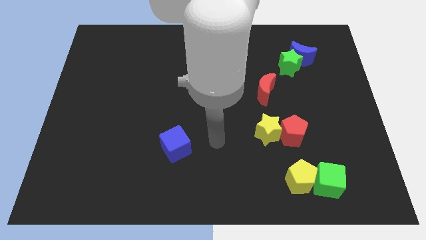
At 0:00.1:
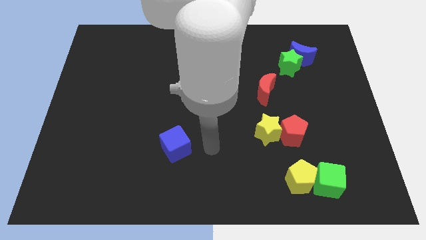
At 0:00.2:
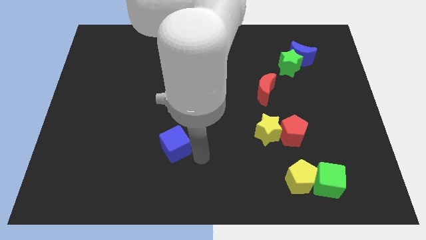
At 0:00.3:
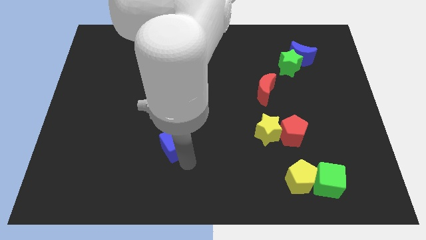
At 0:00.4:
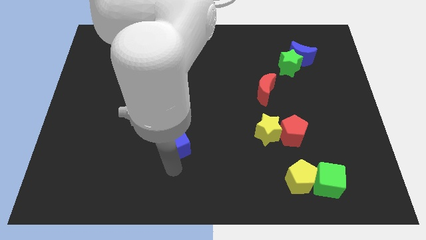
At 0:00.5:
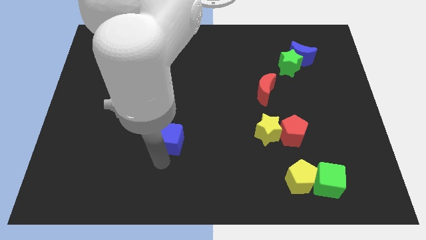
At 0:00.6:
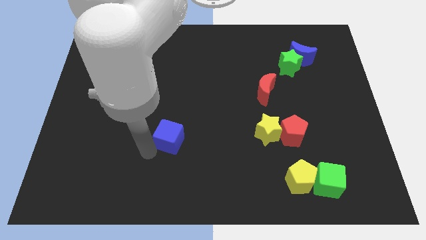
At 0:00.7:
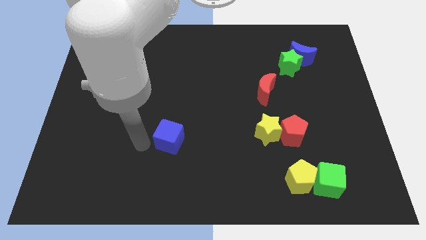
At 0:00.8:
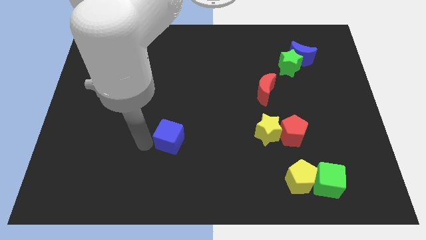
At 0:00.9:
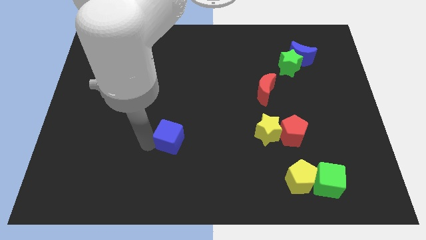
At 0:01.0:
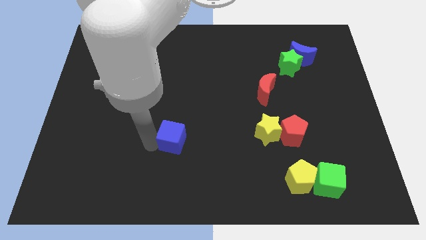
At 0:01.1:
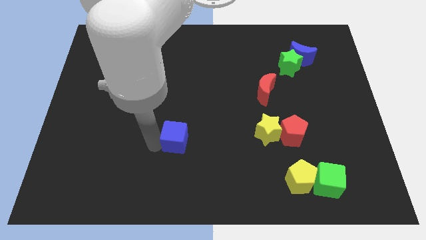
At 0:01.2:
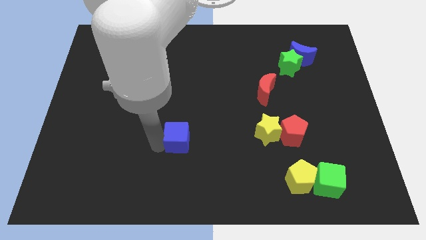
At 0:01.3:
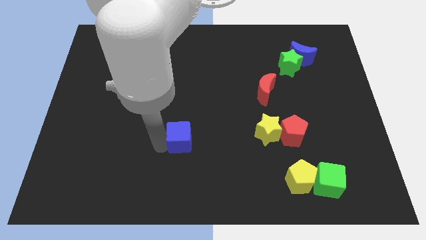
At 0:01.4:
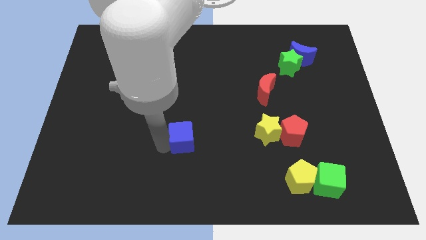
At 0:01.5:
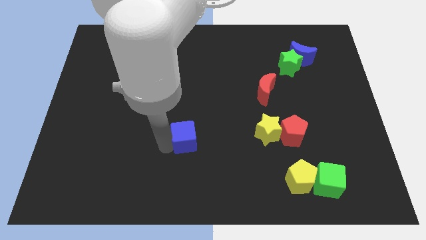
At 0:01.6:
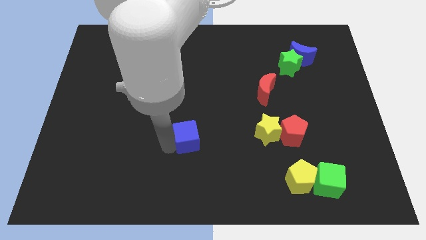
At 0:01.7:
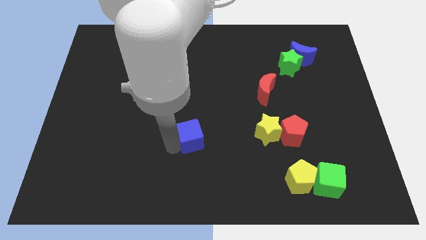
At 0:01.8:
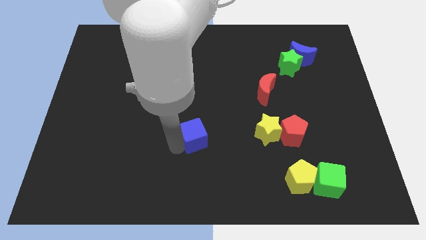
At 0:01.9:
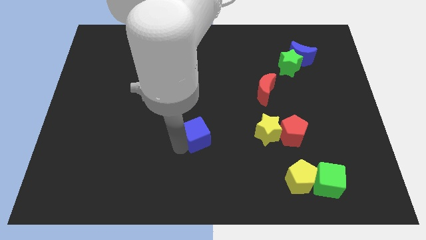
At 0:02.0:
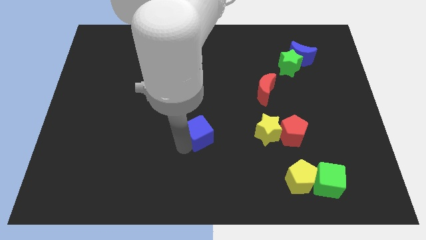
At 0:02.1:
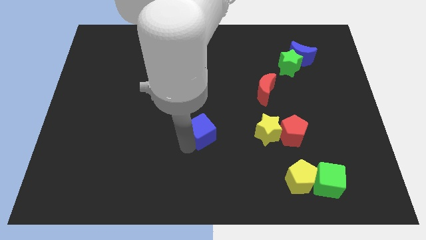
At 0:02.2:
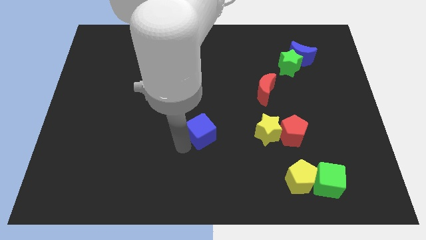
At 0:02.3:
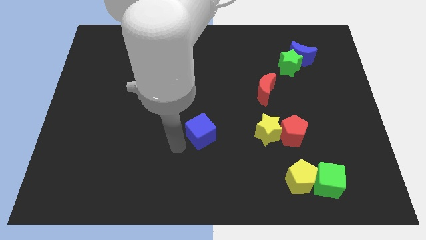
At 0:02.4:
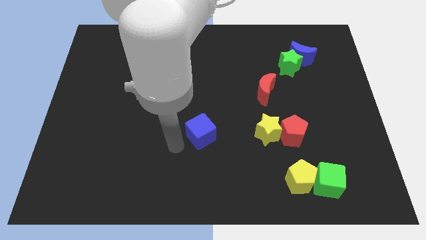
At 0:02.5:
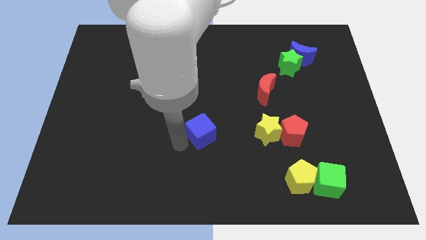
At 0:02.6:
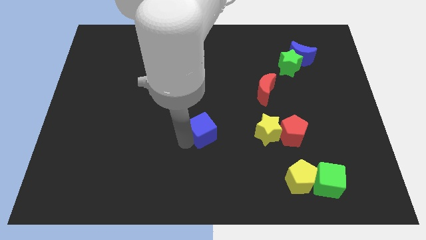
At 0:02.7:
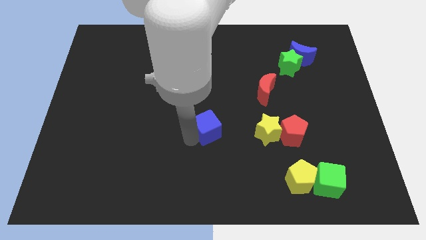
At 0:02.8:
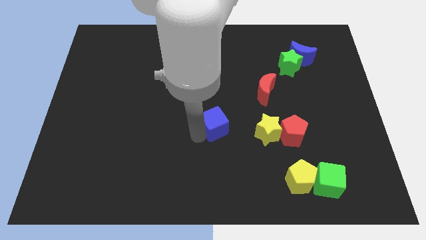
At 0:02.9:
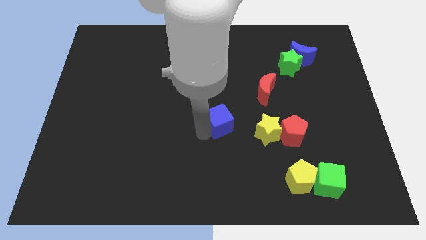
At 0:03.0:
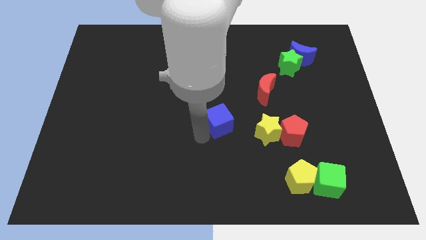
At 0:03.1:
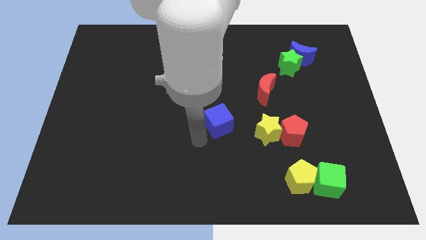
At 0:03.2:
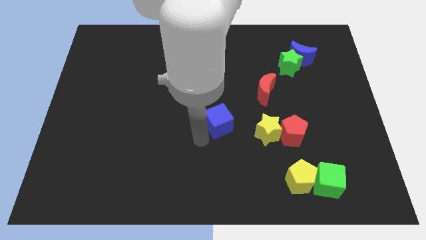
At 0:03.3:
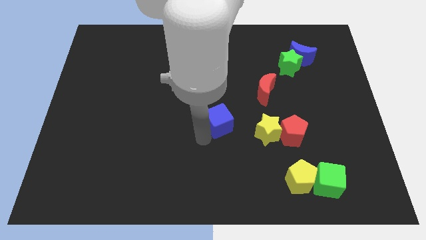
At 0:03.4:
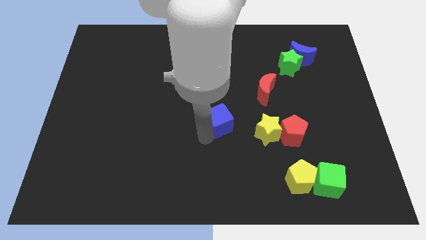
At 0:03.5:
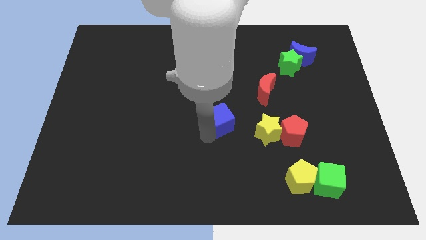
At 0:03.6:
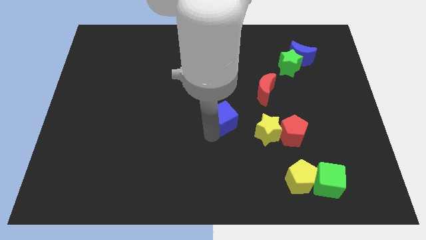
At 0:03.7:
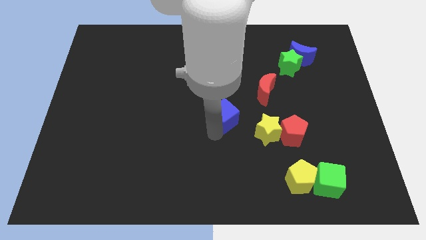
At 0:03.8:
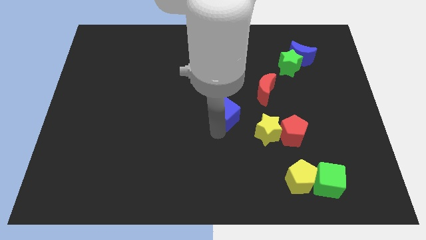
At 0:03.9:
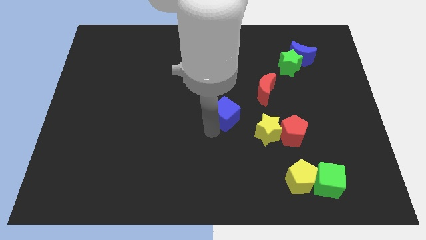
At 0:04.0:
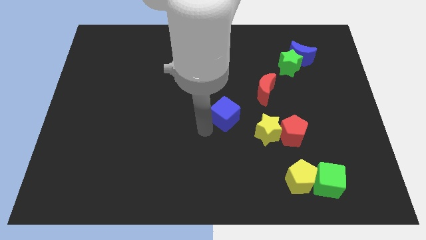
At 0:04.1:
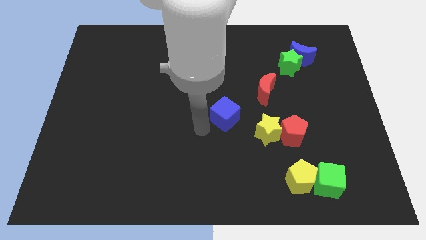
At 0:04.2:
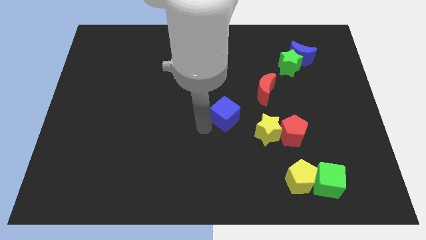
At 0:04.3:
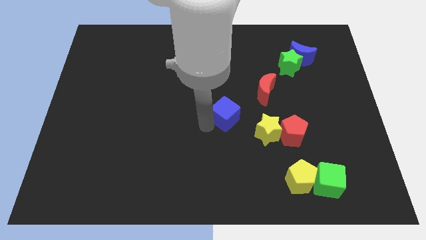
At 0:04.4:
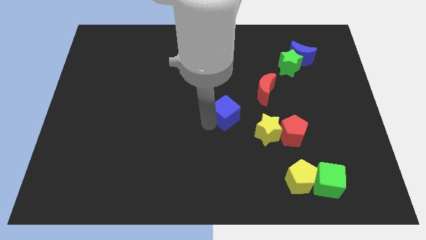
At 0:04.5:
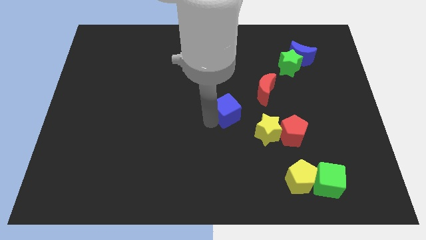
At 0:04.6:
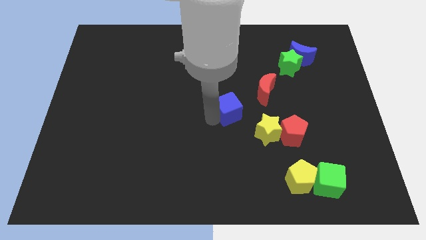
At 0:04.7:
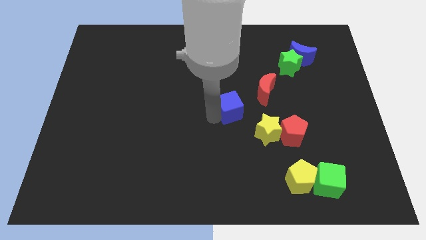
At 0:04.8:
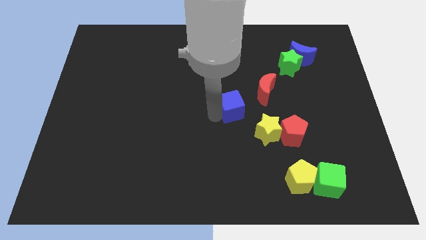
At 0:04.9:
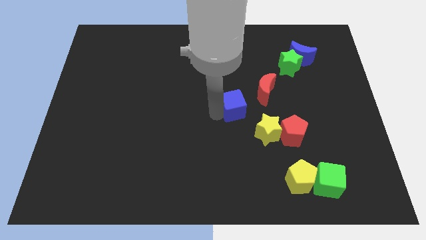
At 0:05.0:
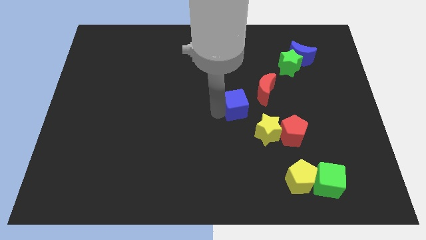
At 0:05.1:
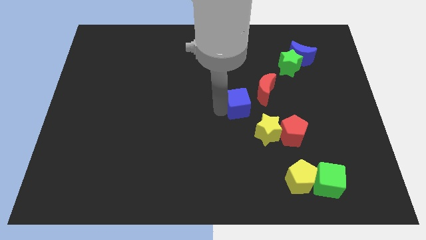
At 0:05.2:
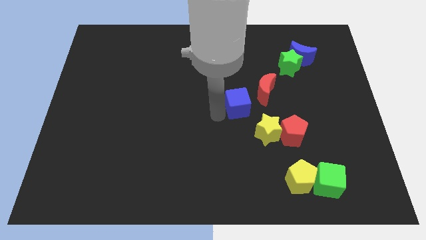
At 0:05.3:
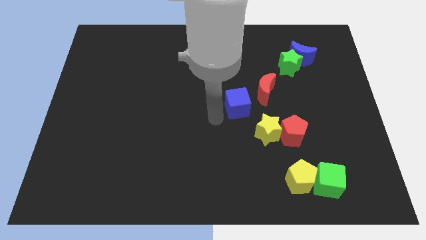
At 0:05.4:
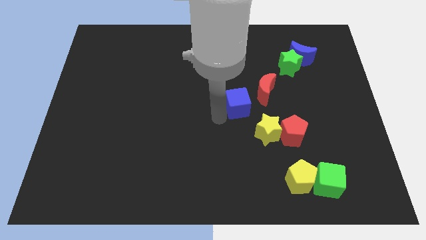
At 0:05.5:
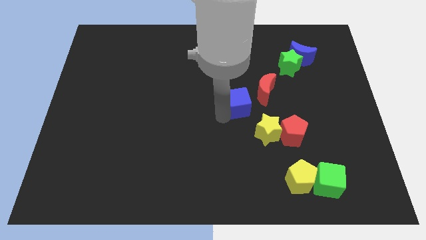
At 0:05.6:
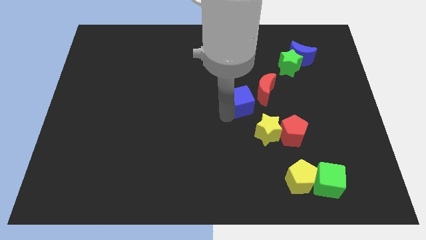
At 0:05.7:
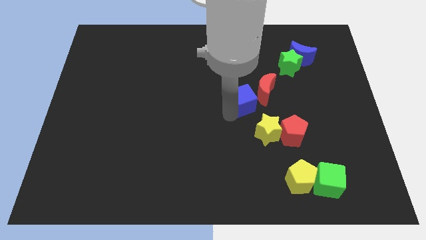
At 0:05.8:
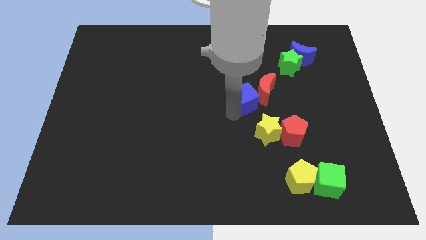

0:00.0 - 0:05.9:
slide the blue cube to the red moon
